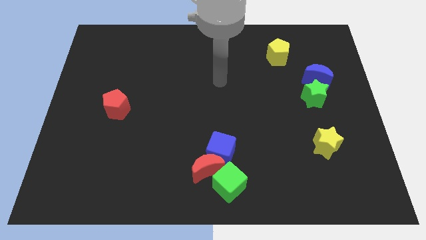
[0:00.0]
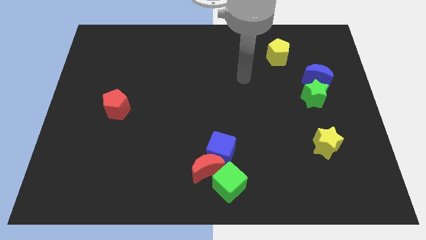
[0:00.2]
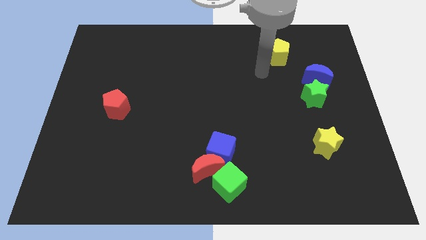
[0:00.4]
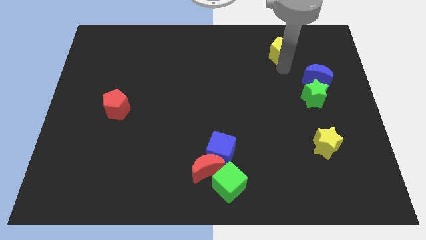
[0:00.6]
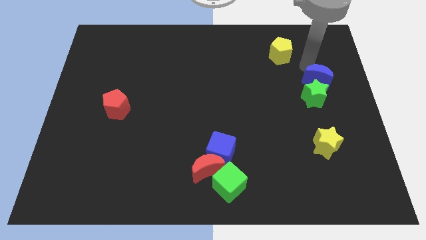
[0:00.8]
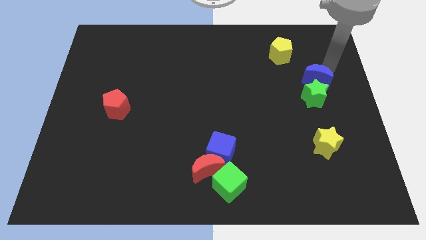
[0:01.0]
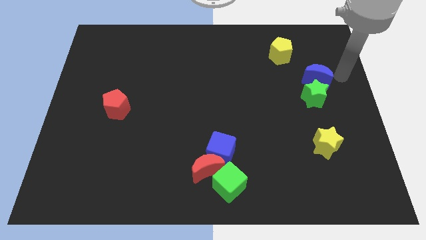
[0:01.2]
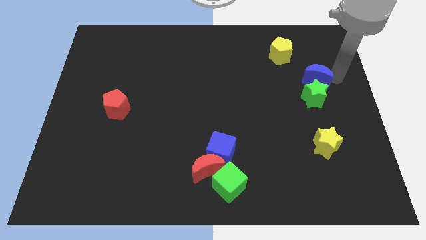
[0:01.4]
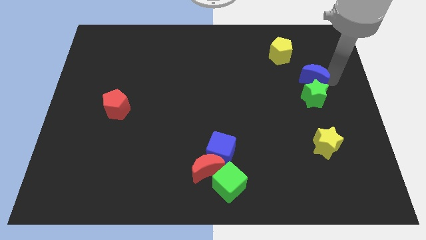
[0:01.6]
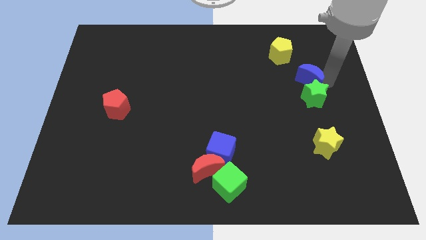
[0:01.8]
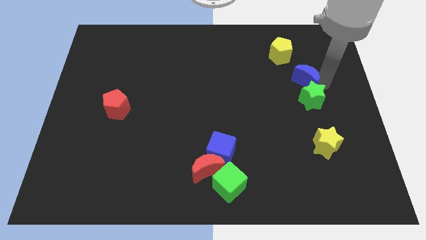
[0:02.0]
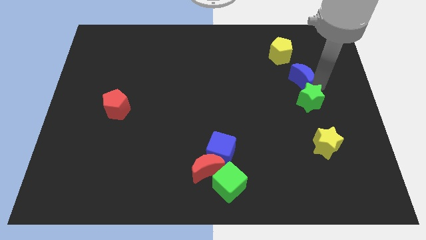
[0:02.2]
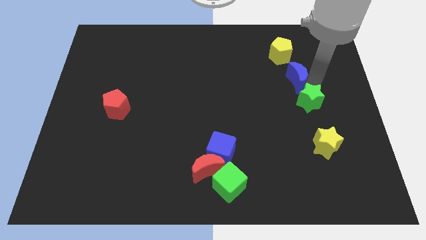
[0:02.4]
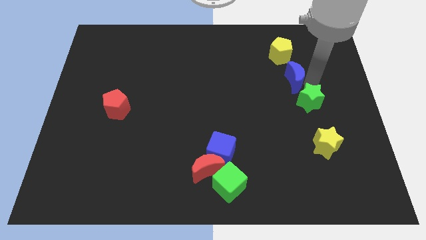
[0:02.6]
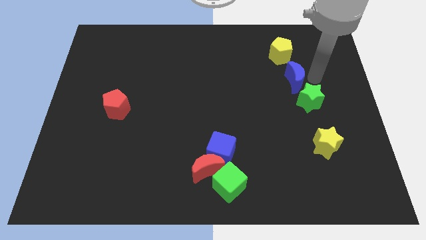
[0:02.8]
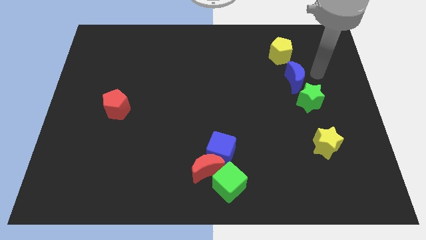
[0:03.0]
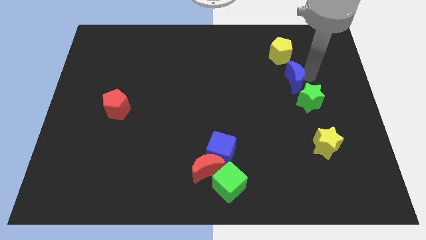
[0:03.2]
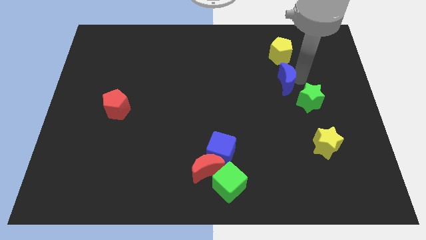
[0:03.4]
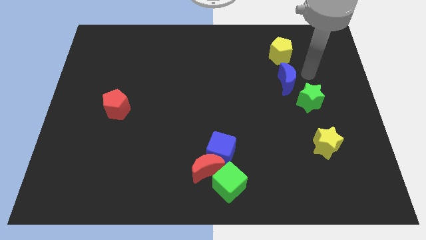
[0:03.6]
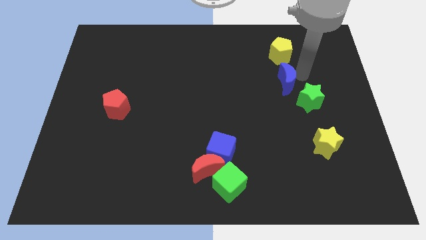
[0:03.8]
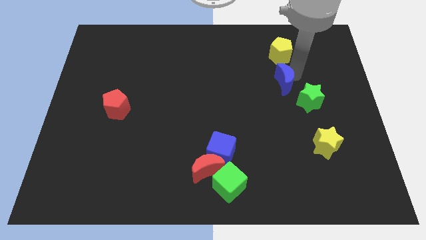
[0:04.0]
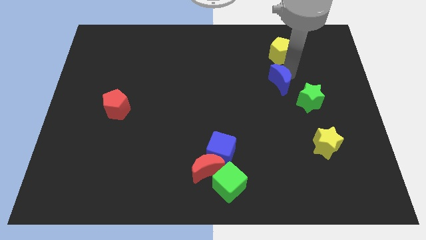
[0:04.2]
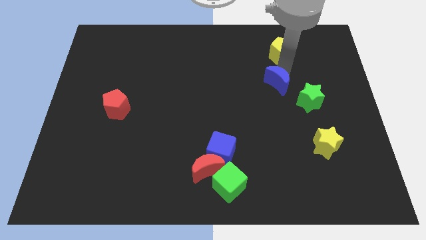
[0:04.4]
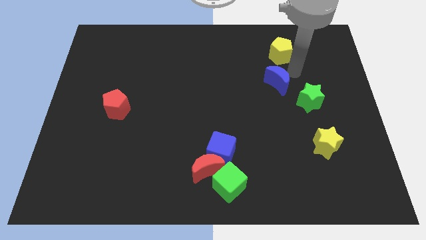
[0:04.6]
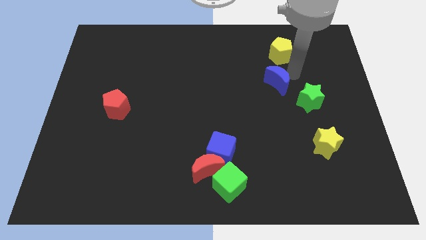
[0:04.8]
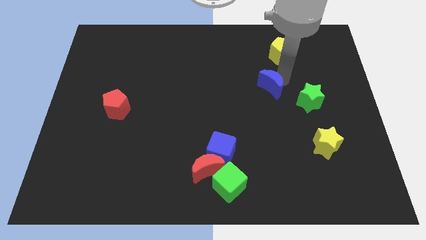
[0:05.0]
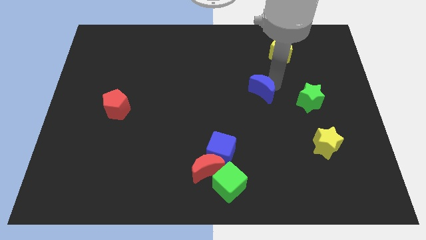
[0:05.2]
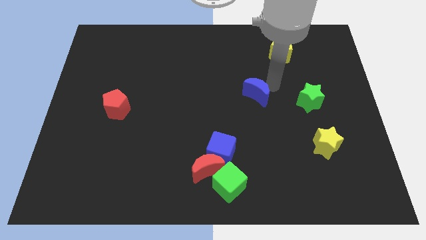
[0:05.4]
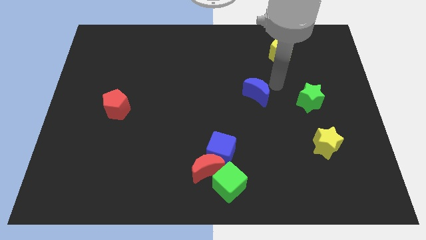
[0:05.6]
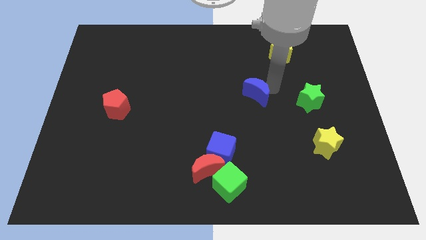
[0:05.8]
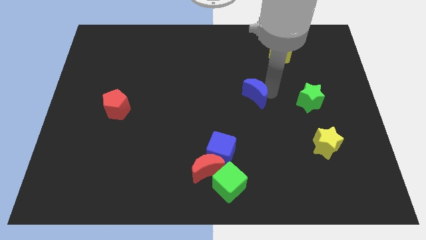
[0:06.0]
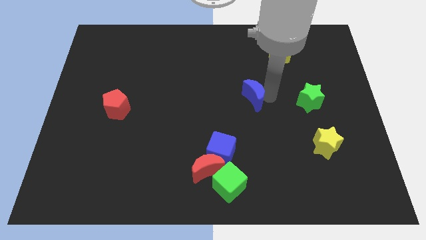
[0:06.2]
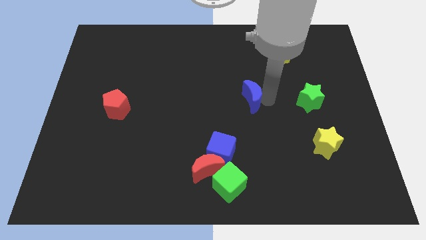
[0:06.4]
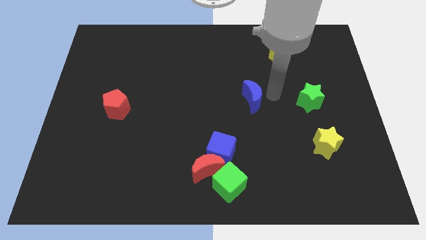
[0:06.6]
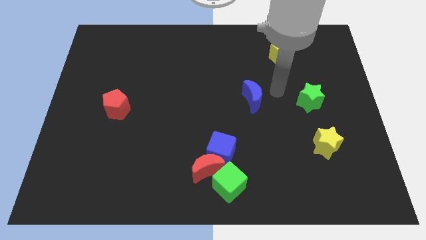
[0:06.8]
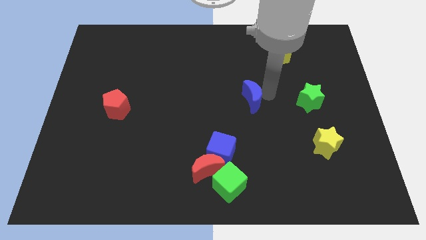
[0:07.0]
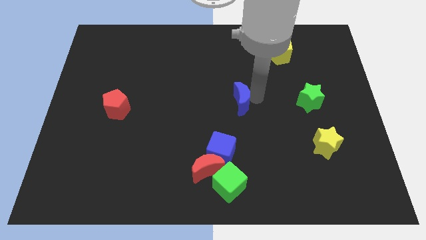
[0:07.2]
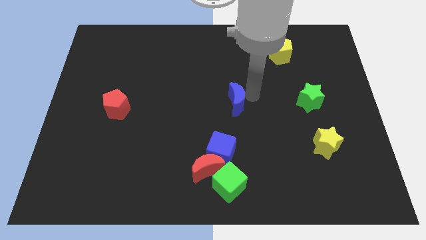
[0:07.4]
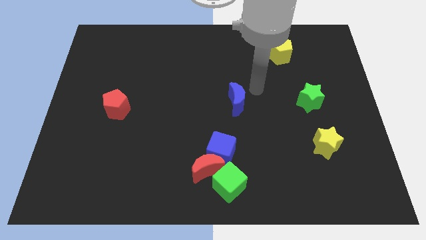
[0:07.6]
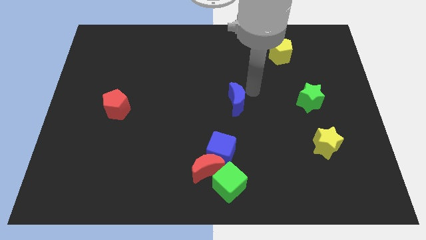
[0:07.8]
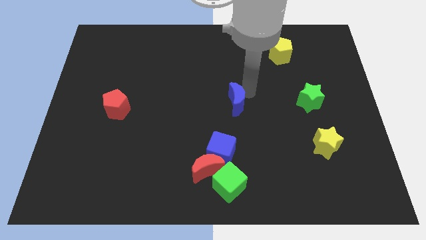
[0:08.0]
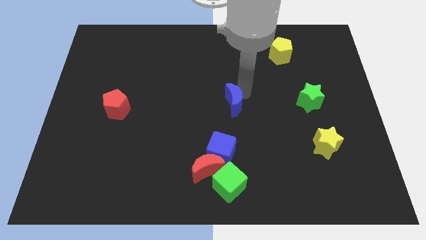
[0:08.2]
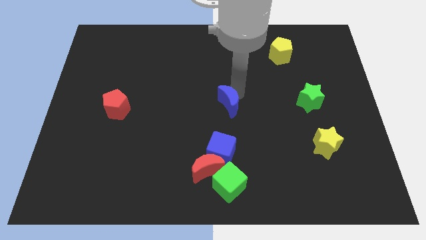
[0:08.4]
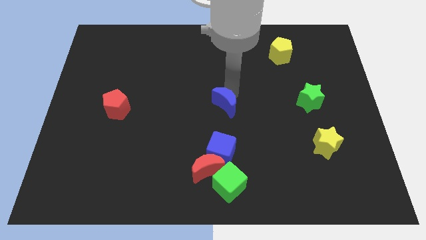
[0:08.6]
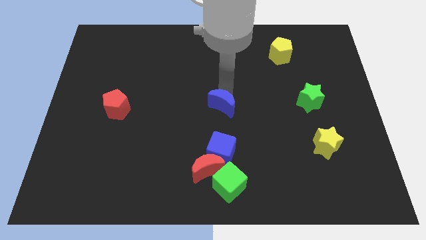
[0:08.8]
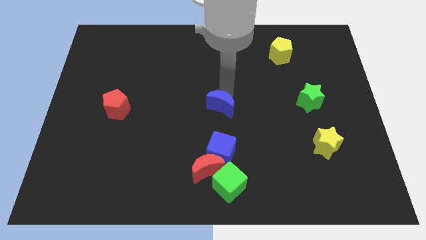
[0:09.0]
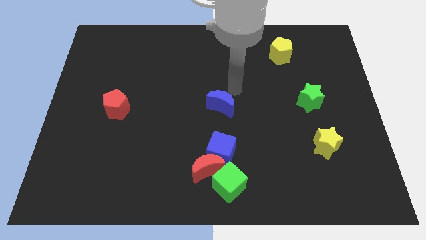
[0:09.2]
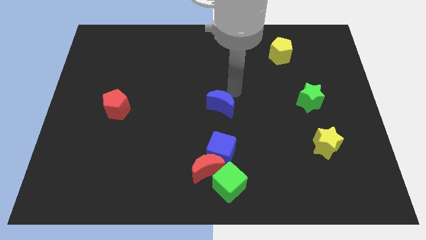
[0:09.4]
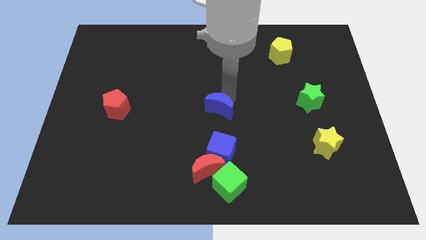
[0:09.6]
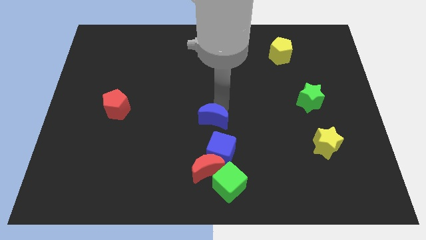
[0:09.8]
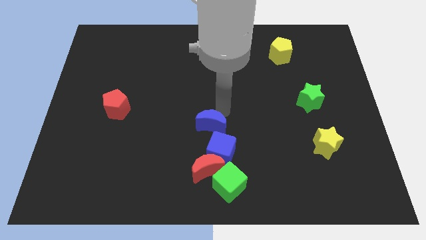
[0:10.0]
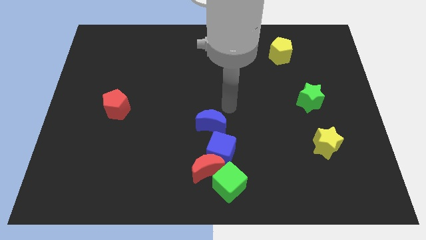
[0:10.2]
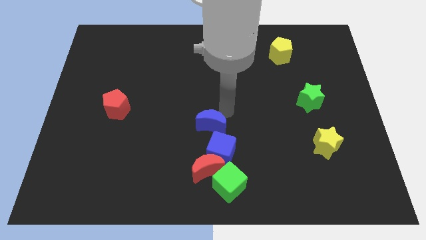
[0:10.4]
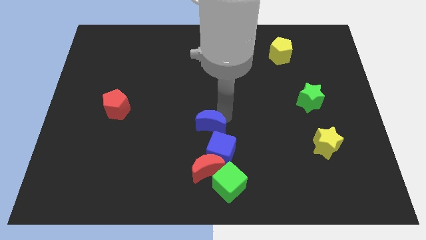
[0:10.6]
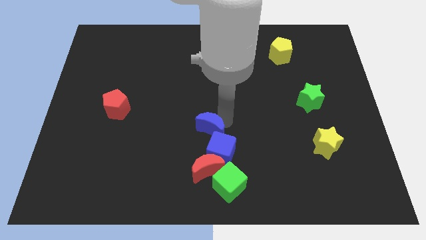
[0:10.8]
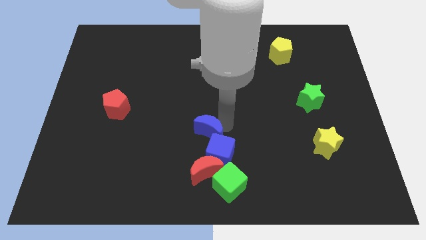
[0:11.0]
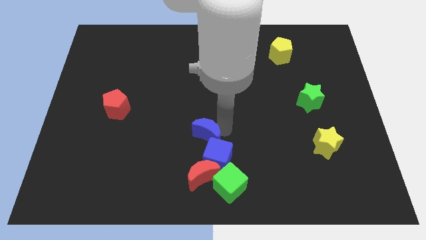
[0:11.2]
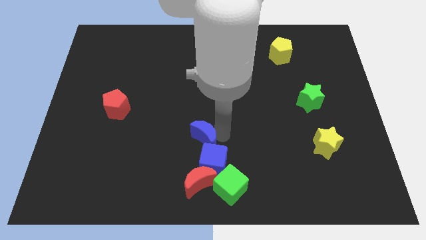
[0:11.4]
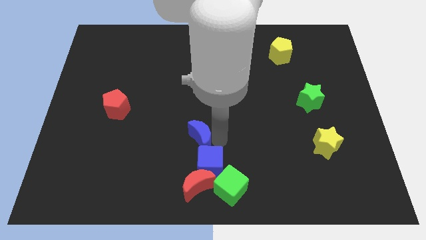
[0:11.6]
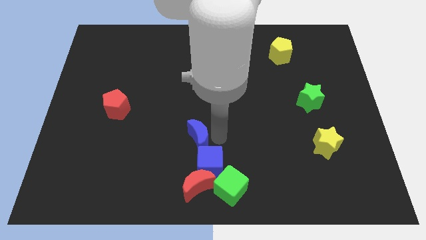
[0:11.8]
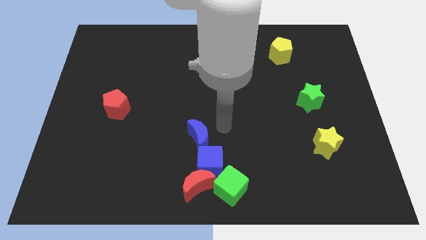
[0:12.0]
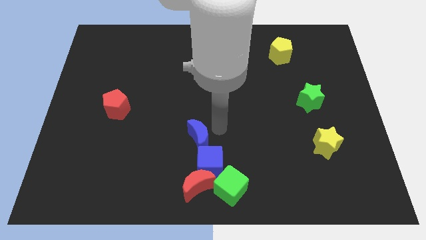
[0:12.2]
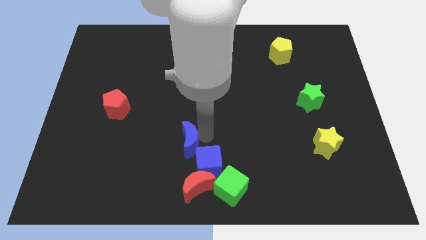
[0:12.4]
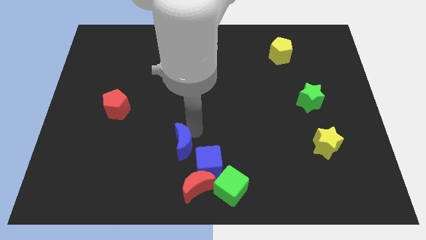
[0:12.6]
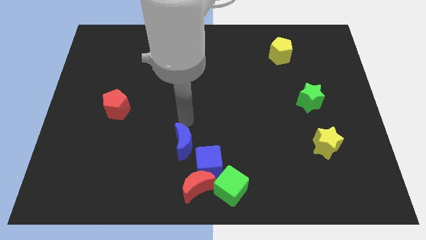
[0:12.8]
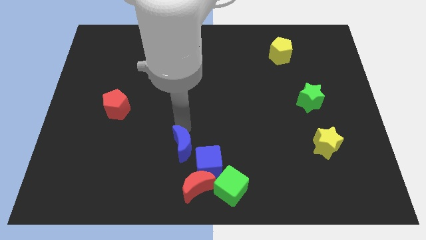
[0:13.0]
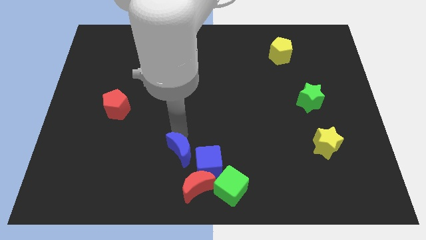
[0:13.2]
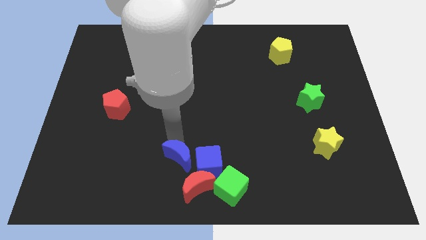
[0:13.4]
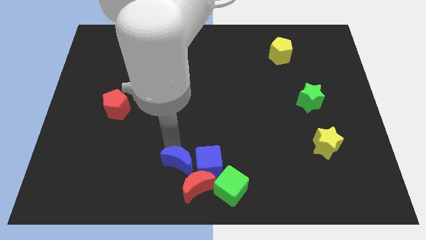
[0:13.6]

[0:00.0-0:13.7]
push the blue moon to the bottom left of the blue cube

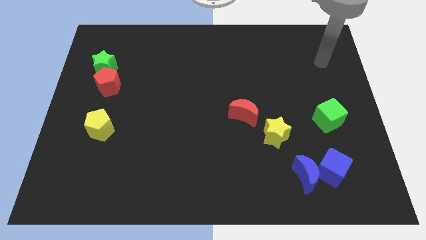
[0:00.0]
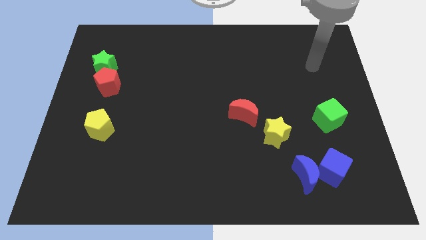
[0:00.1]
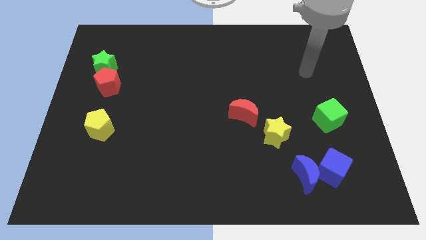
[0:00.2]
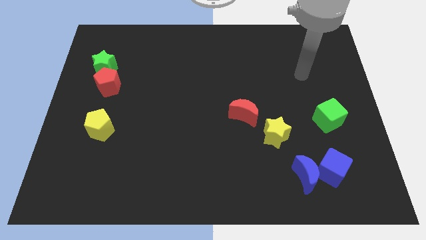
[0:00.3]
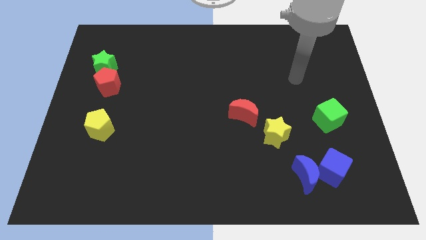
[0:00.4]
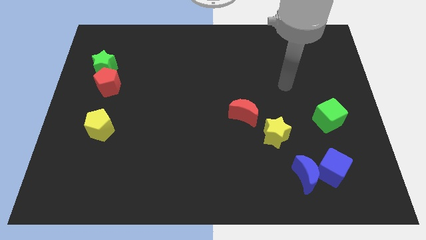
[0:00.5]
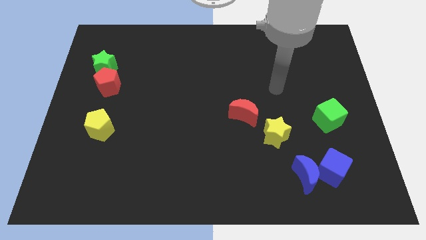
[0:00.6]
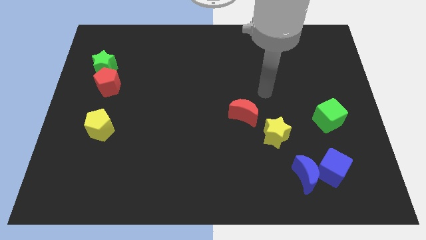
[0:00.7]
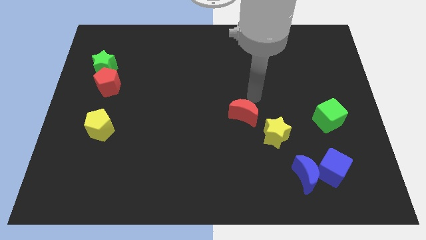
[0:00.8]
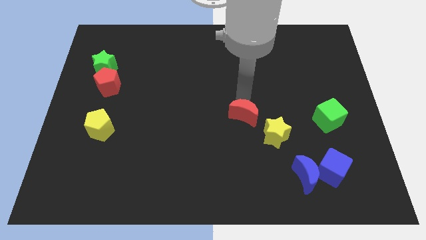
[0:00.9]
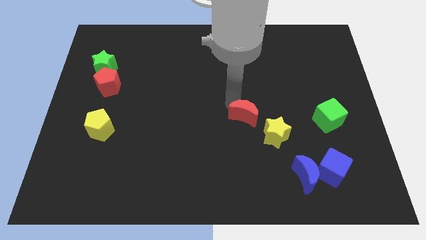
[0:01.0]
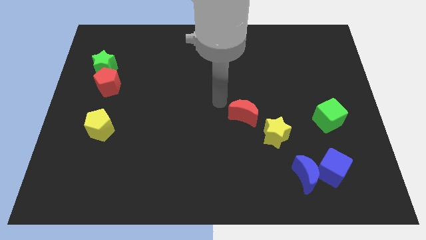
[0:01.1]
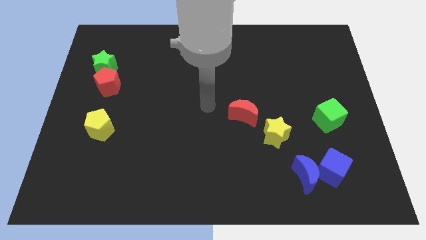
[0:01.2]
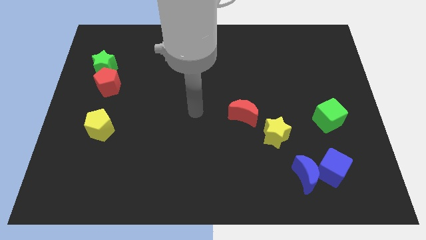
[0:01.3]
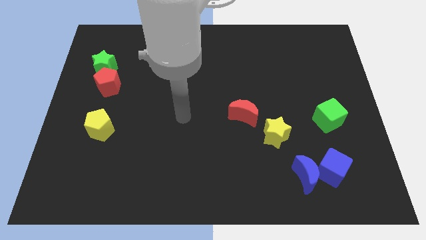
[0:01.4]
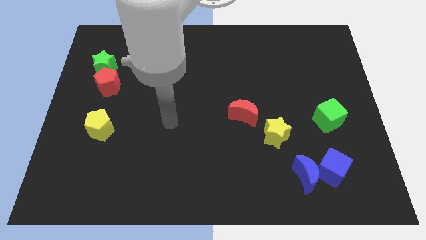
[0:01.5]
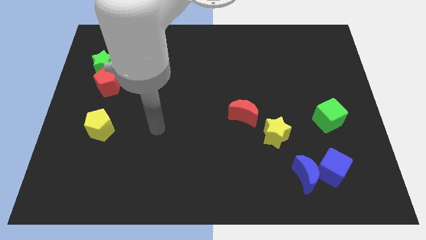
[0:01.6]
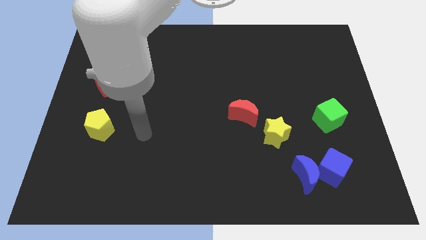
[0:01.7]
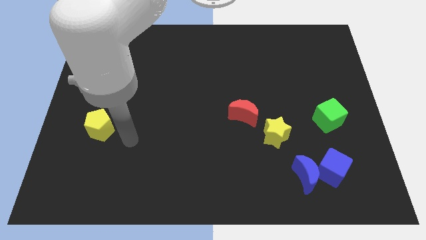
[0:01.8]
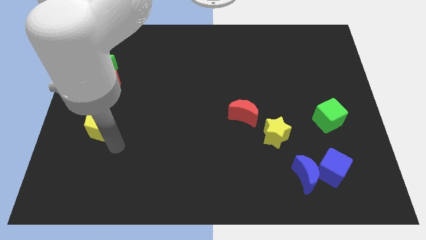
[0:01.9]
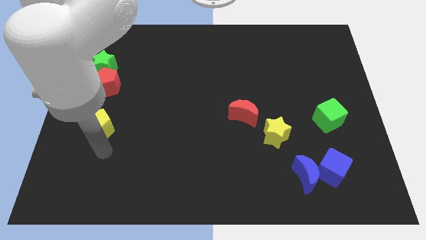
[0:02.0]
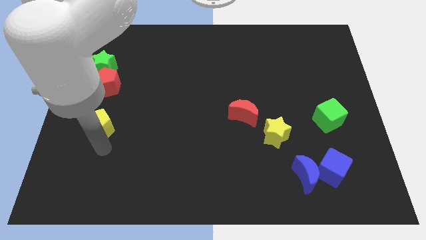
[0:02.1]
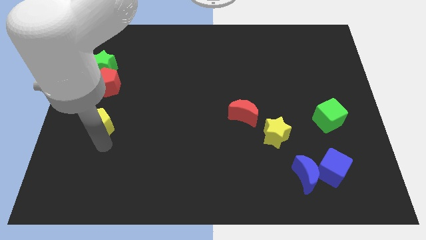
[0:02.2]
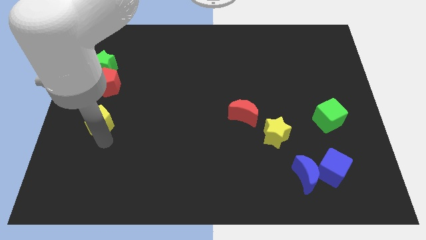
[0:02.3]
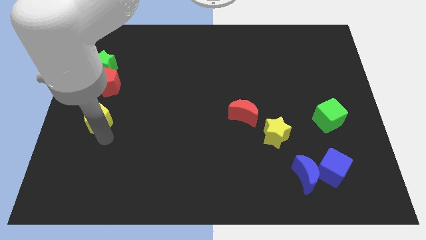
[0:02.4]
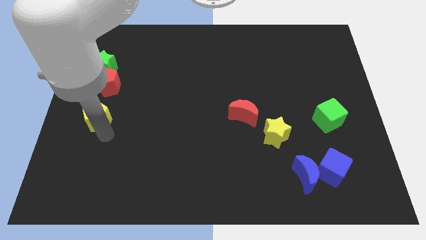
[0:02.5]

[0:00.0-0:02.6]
move the yellow pentagon below the green star
